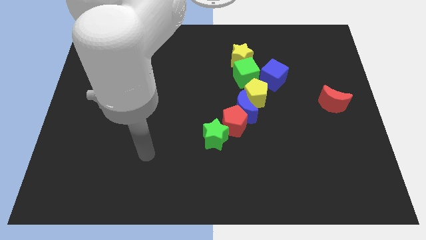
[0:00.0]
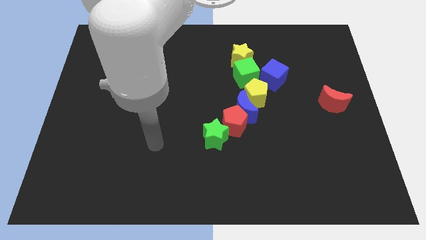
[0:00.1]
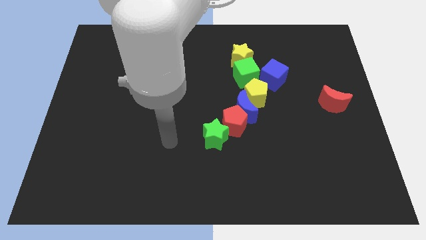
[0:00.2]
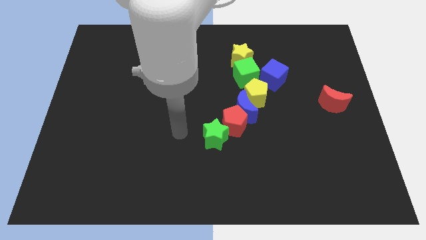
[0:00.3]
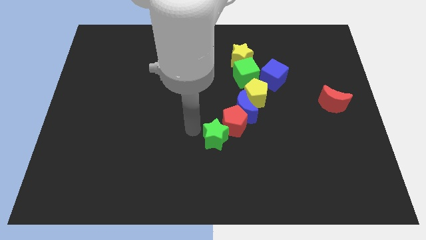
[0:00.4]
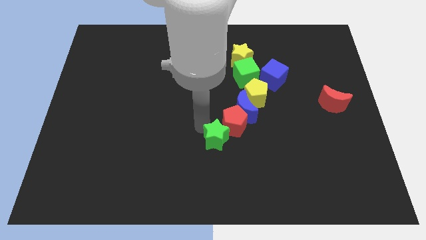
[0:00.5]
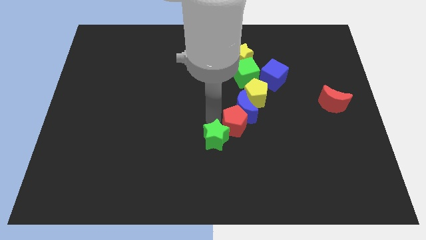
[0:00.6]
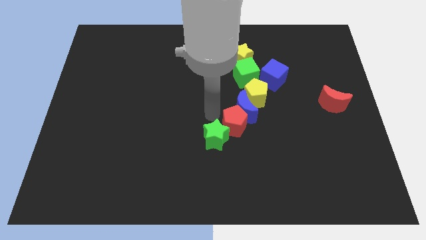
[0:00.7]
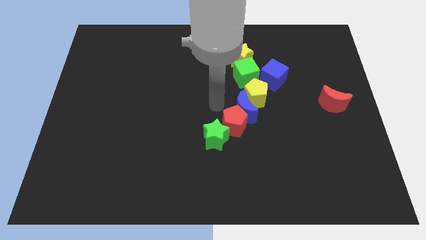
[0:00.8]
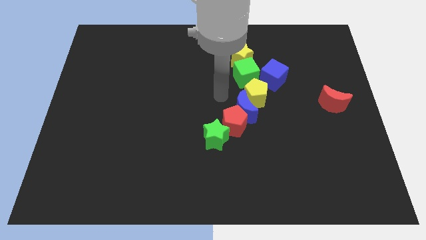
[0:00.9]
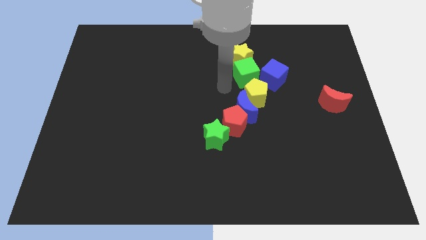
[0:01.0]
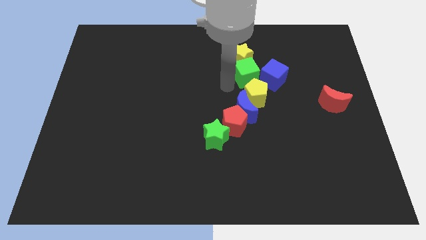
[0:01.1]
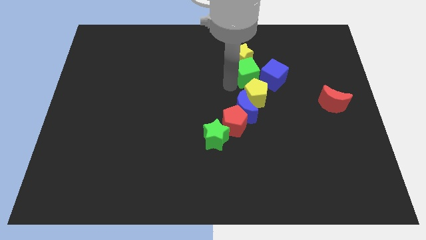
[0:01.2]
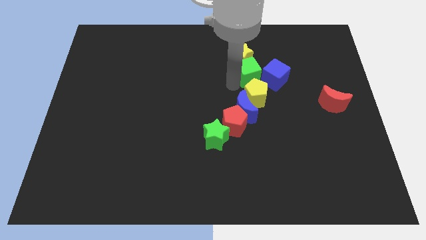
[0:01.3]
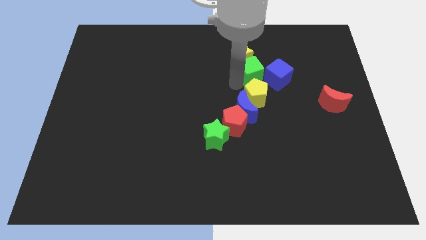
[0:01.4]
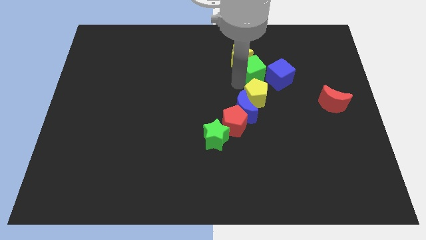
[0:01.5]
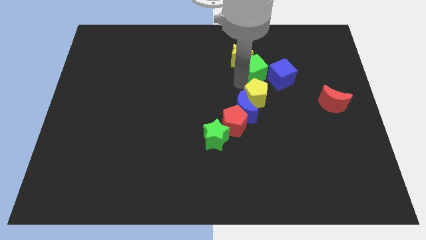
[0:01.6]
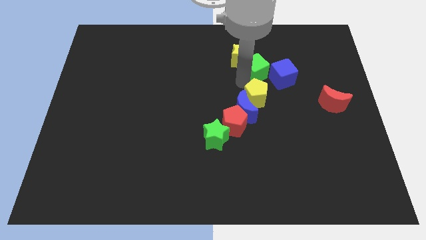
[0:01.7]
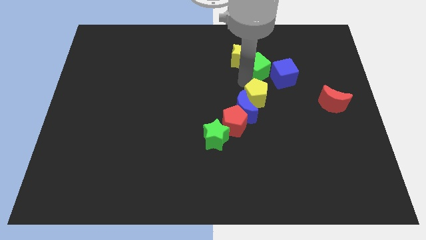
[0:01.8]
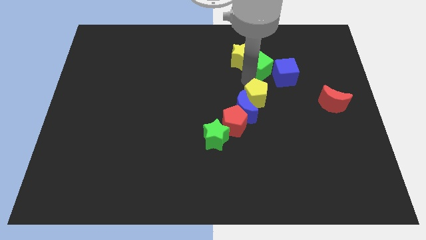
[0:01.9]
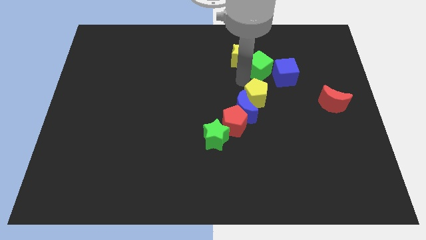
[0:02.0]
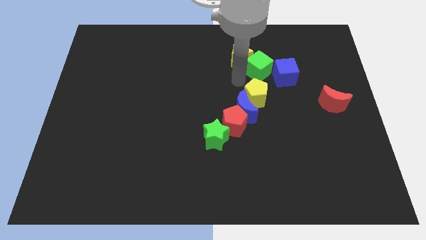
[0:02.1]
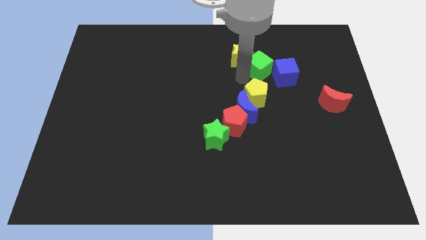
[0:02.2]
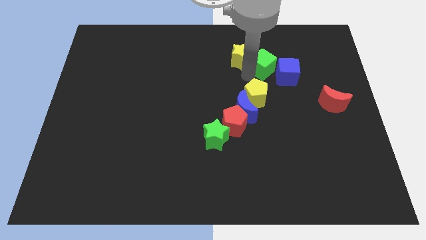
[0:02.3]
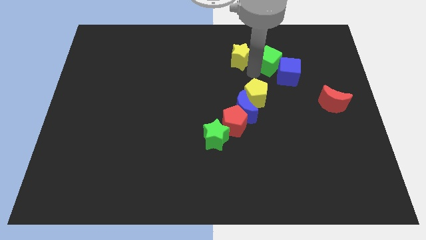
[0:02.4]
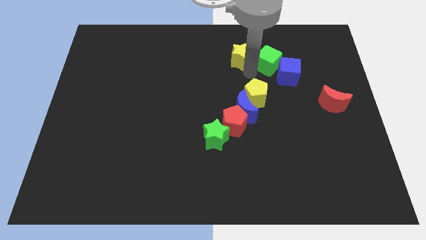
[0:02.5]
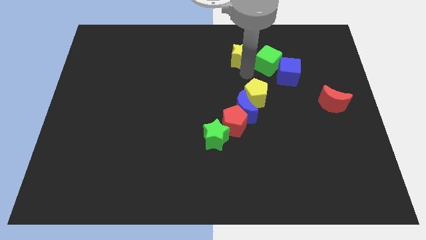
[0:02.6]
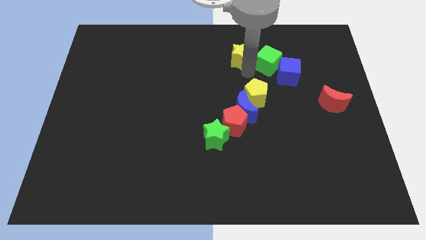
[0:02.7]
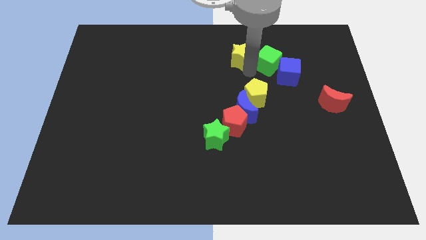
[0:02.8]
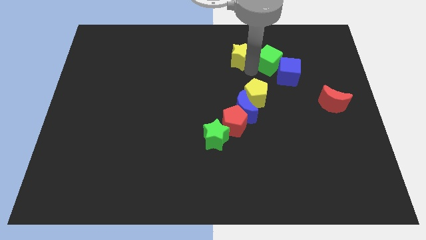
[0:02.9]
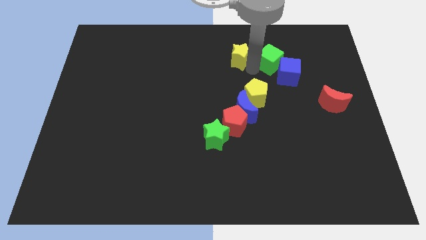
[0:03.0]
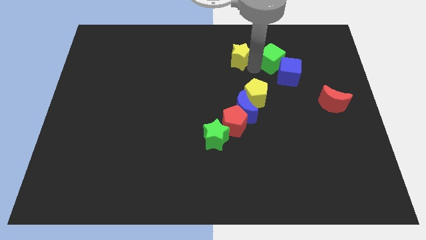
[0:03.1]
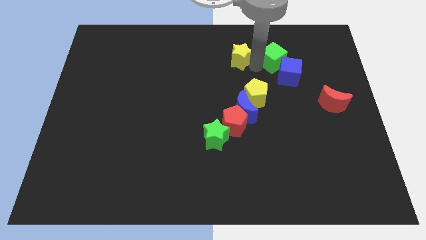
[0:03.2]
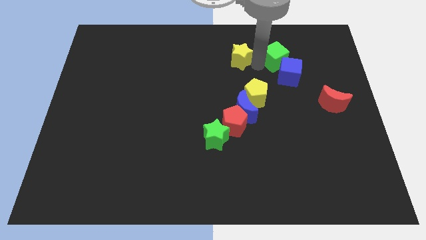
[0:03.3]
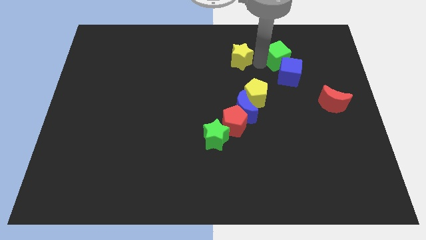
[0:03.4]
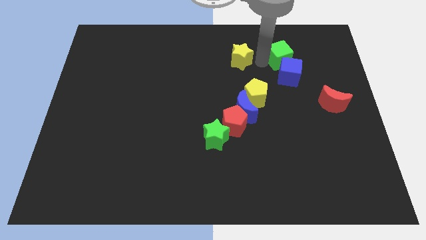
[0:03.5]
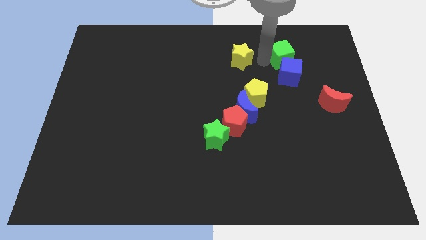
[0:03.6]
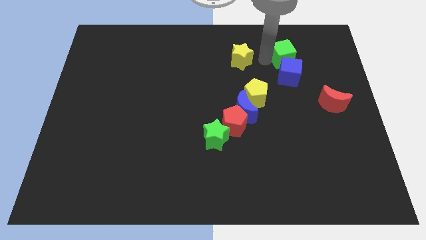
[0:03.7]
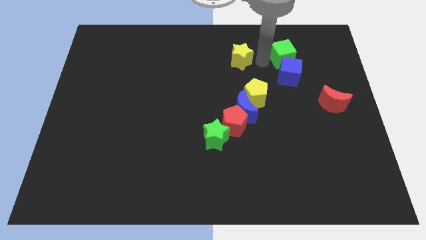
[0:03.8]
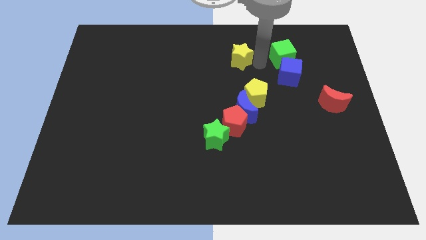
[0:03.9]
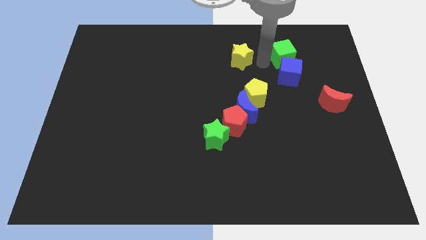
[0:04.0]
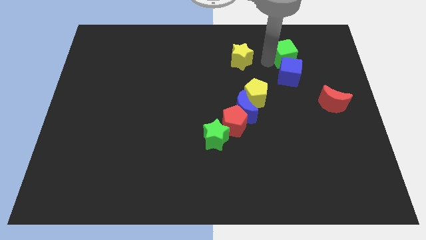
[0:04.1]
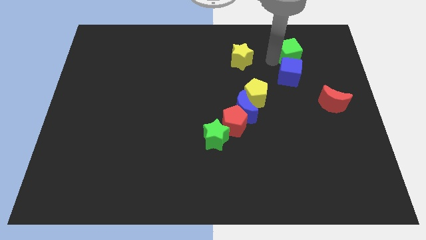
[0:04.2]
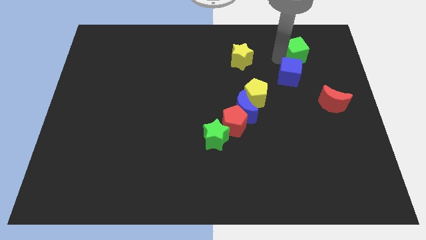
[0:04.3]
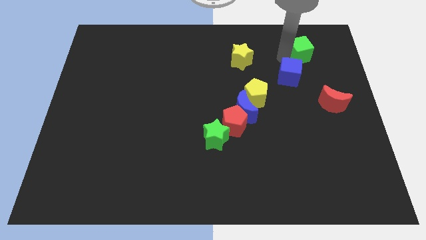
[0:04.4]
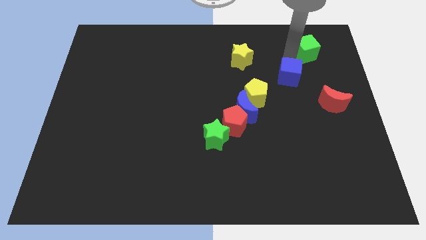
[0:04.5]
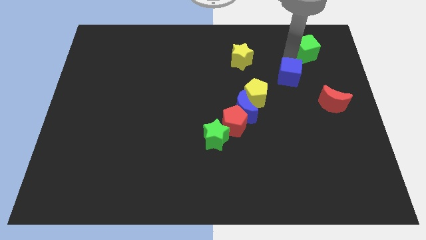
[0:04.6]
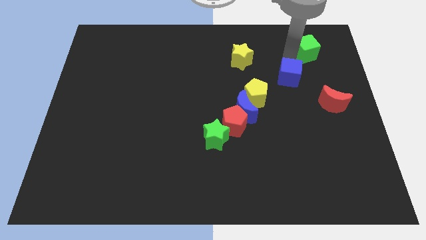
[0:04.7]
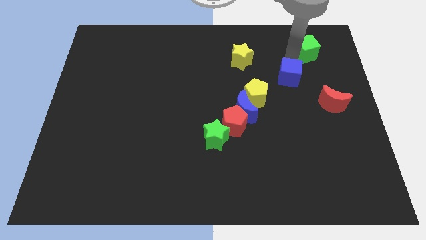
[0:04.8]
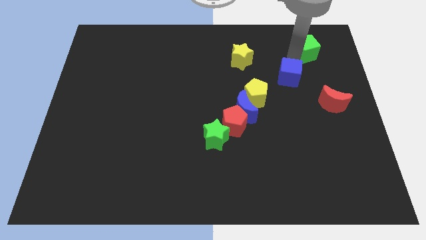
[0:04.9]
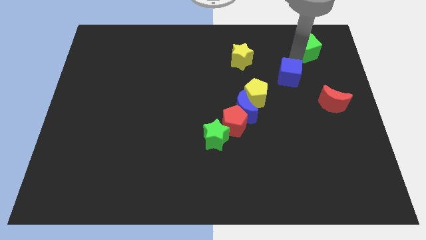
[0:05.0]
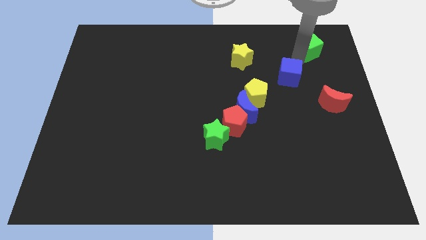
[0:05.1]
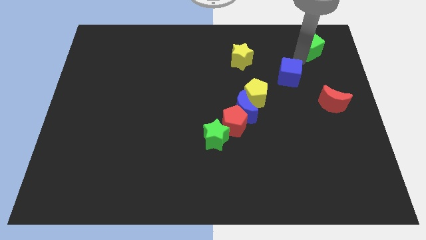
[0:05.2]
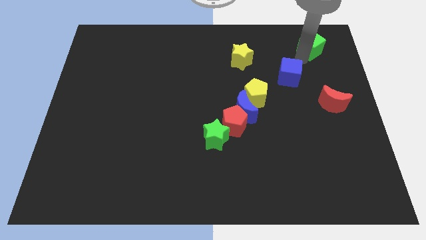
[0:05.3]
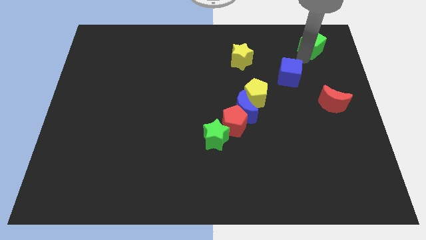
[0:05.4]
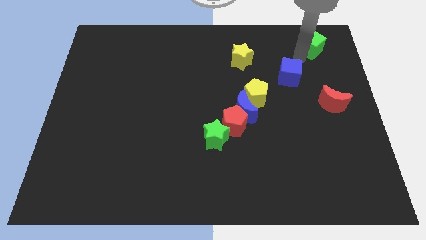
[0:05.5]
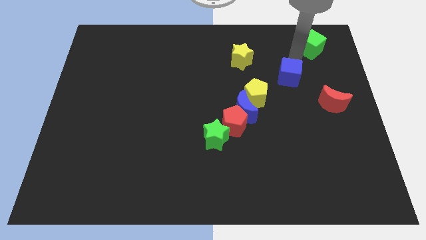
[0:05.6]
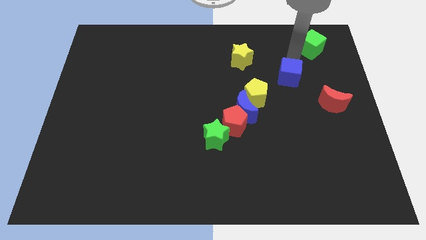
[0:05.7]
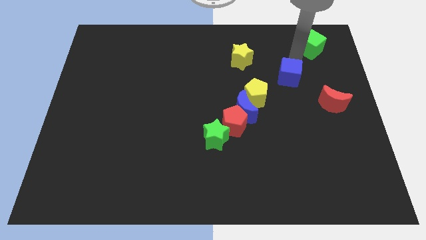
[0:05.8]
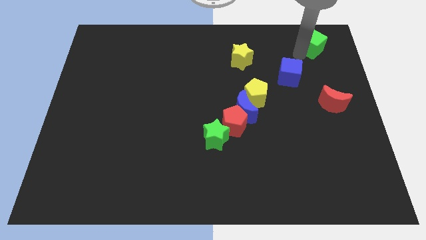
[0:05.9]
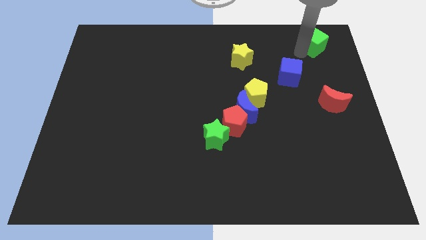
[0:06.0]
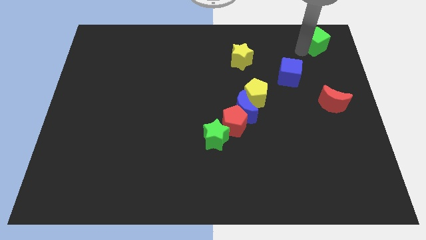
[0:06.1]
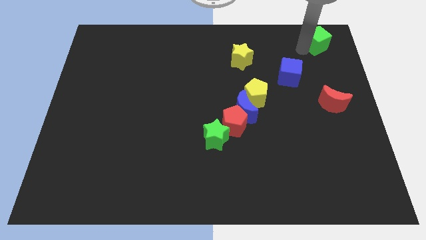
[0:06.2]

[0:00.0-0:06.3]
push the green cube to the top right
